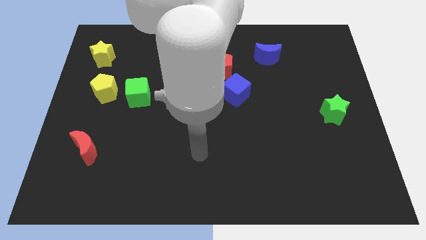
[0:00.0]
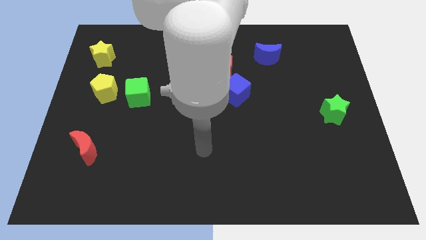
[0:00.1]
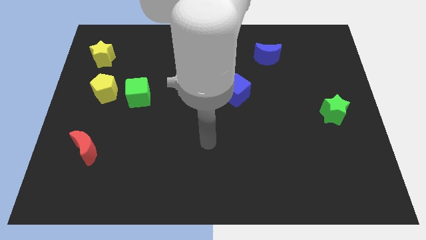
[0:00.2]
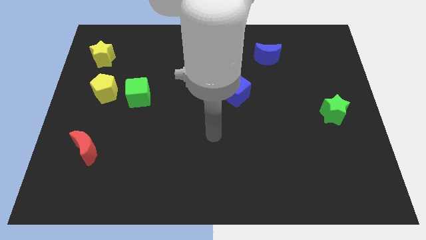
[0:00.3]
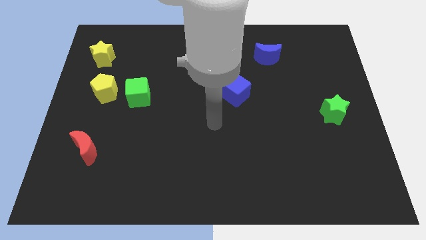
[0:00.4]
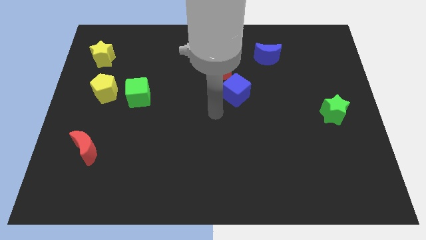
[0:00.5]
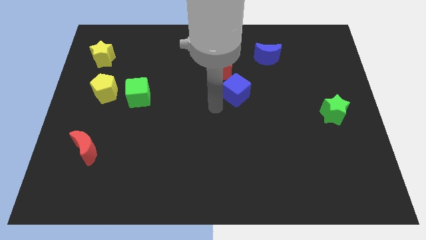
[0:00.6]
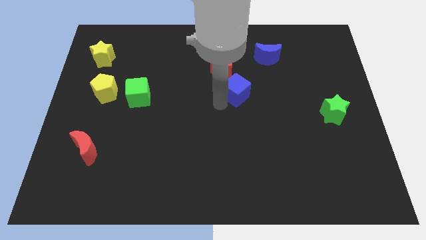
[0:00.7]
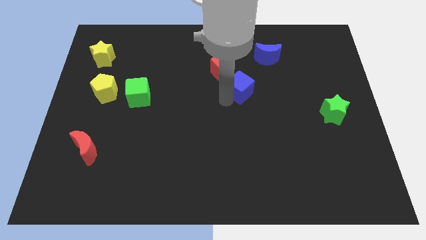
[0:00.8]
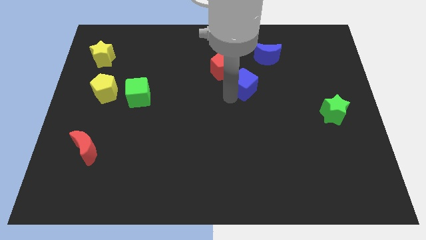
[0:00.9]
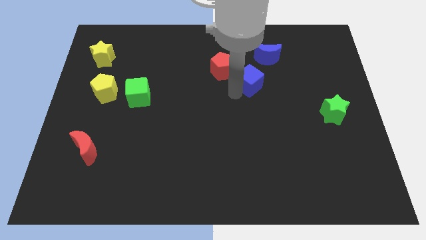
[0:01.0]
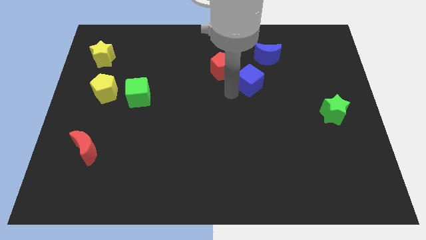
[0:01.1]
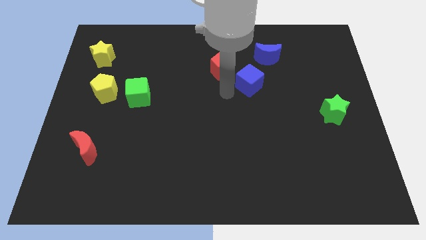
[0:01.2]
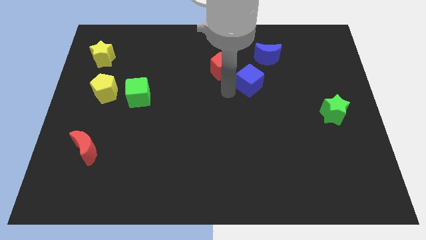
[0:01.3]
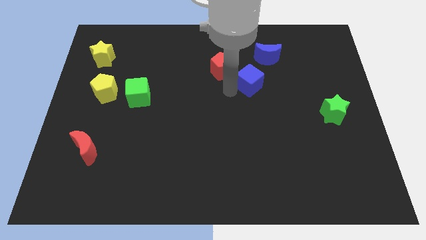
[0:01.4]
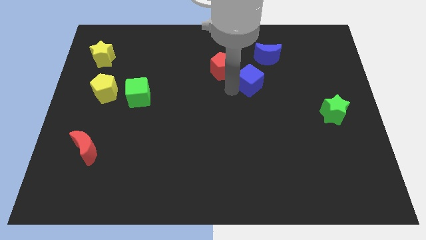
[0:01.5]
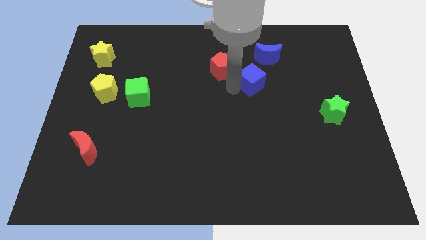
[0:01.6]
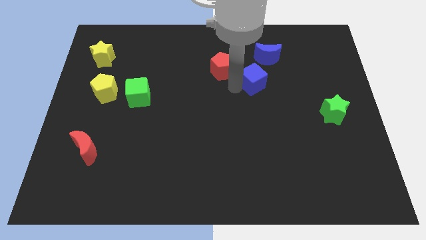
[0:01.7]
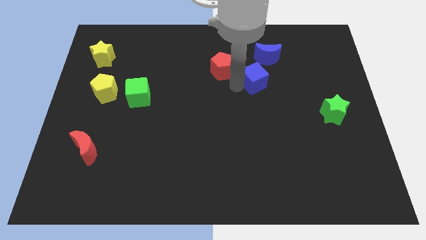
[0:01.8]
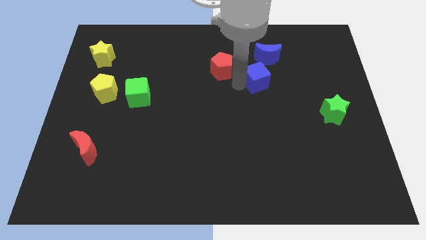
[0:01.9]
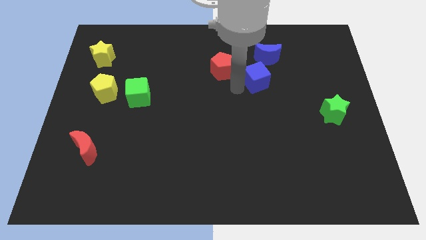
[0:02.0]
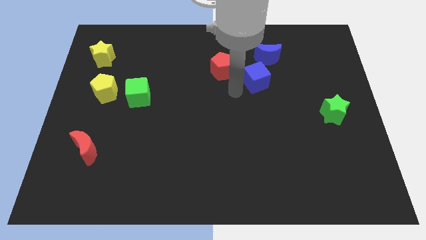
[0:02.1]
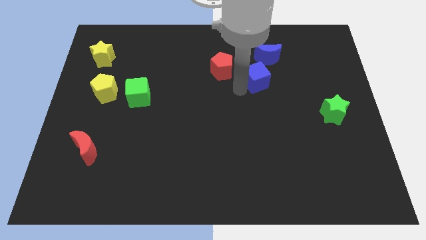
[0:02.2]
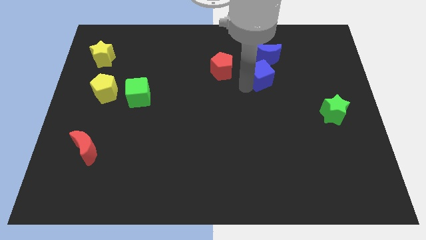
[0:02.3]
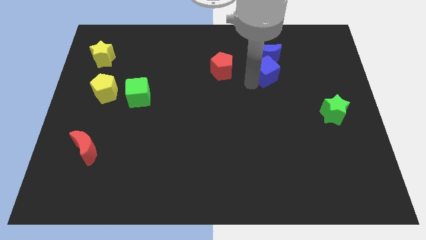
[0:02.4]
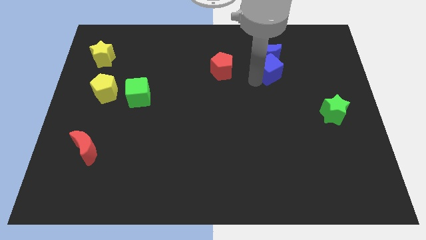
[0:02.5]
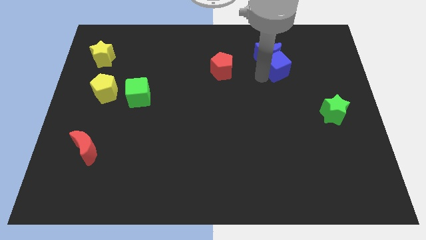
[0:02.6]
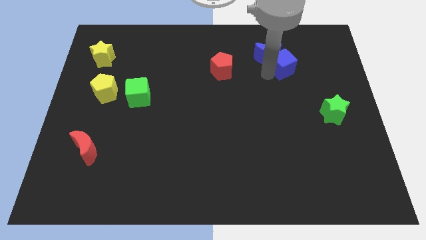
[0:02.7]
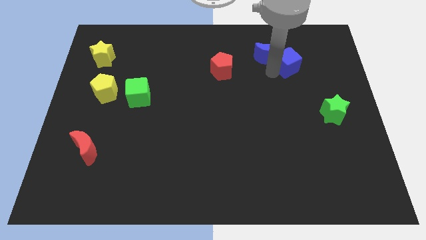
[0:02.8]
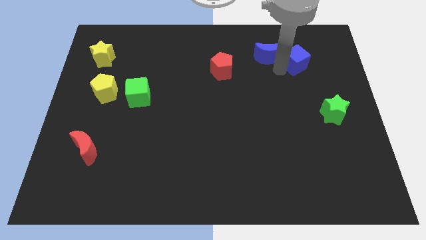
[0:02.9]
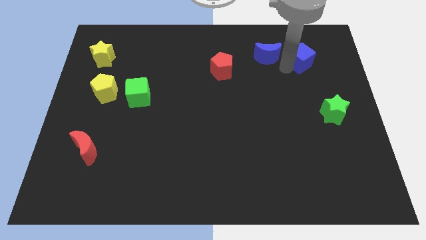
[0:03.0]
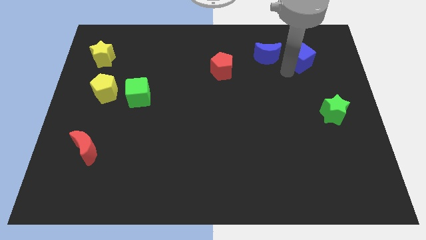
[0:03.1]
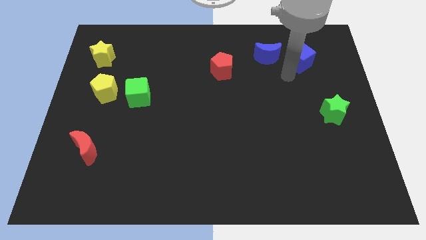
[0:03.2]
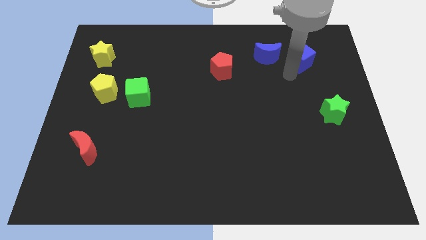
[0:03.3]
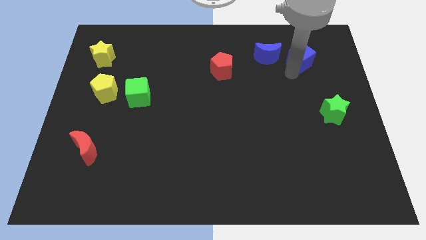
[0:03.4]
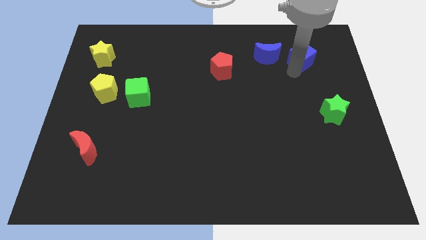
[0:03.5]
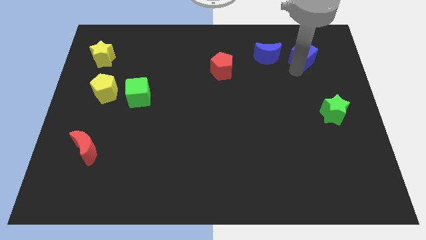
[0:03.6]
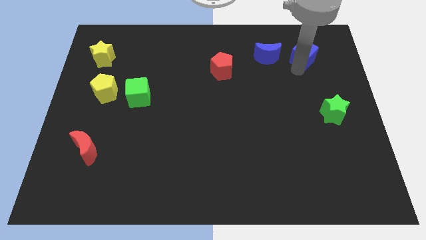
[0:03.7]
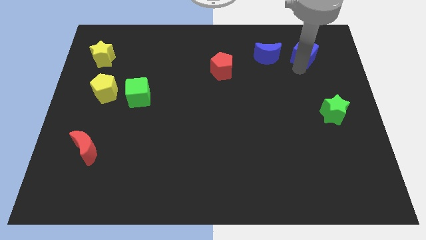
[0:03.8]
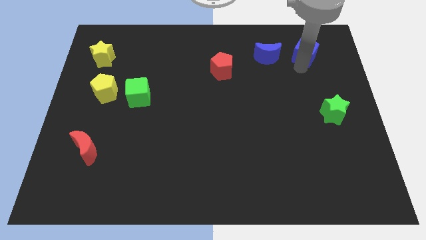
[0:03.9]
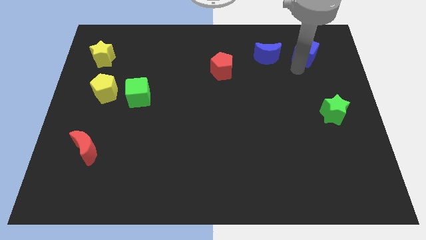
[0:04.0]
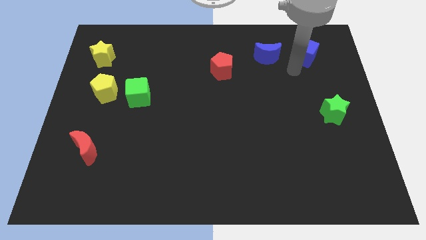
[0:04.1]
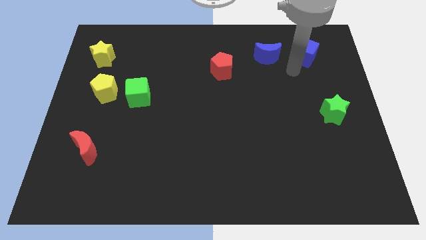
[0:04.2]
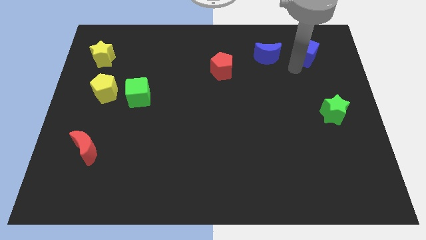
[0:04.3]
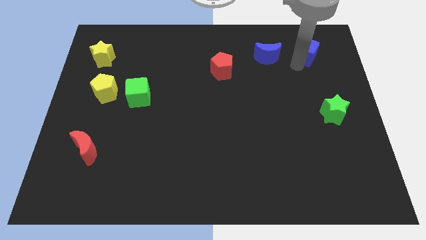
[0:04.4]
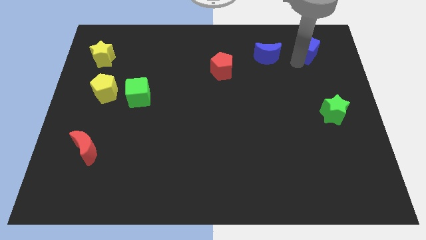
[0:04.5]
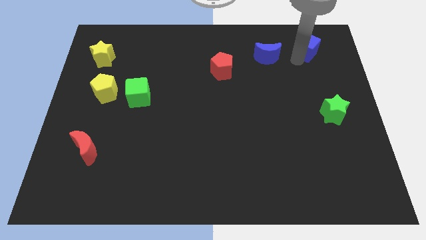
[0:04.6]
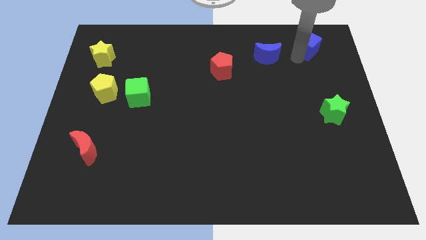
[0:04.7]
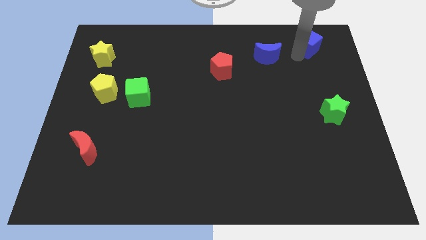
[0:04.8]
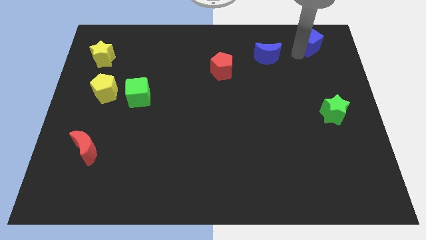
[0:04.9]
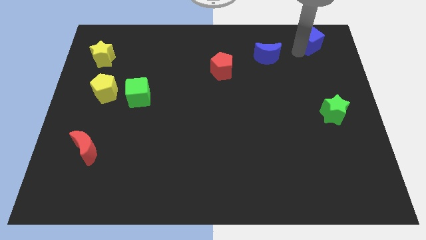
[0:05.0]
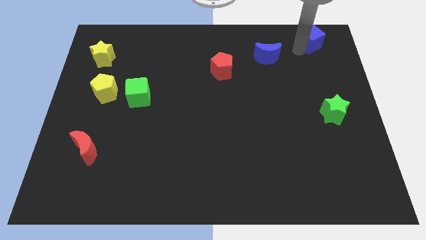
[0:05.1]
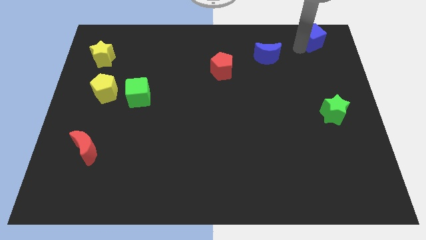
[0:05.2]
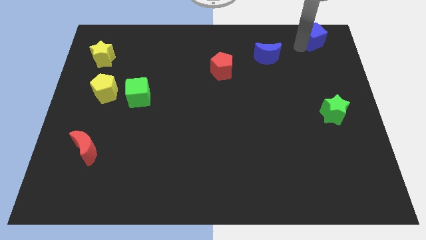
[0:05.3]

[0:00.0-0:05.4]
push the blue cube to the upper right corner

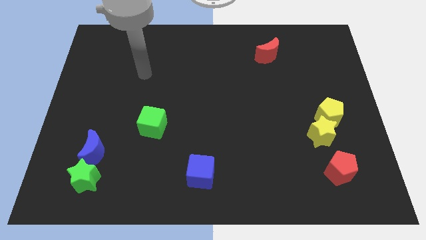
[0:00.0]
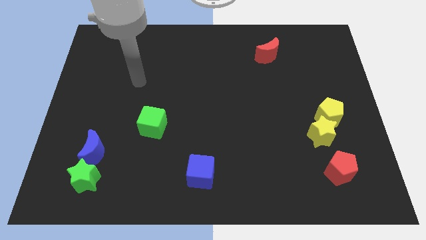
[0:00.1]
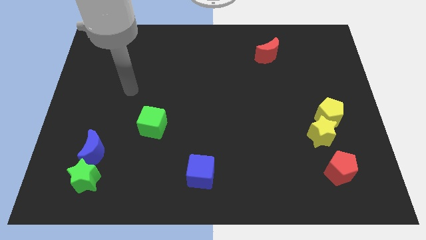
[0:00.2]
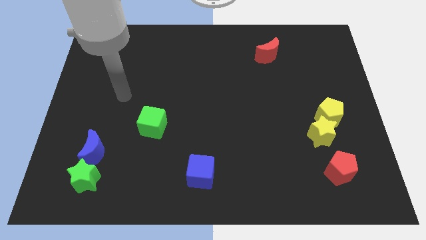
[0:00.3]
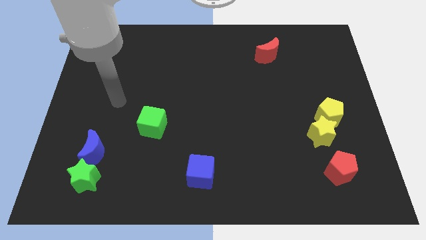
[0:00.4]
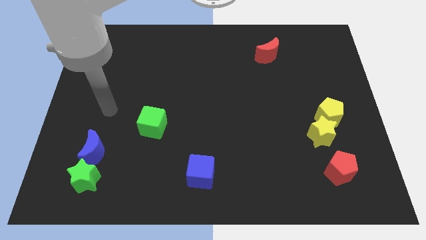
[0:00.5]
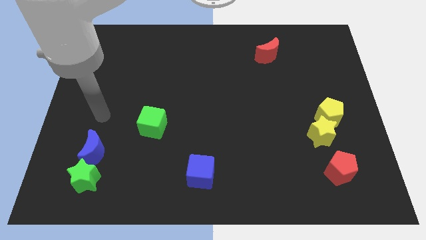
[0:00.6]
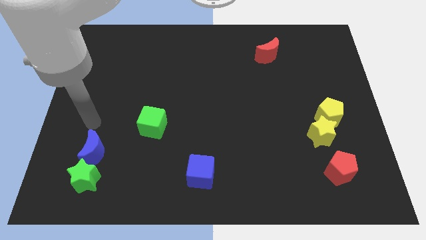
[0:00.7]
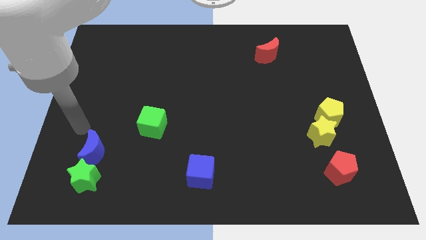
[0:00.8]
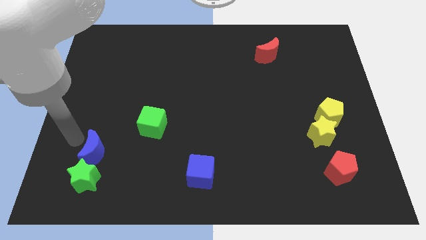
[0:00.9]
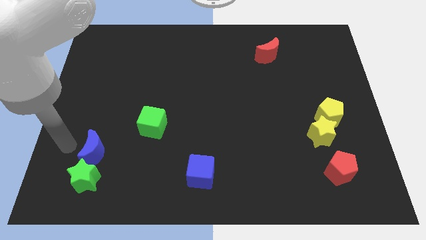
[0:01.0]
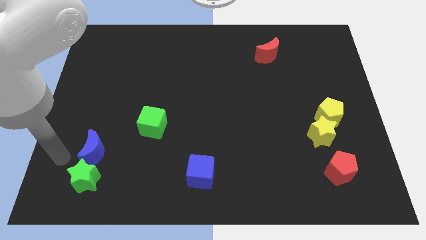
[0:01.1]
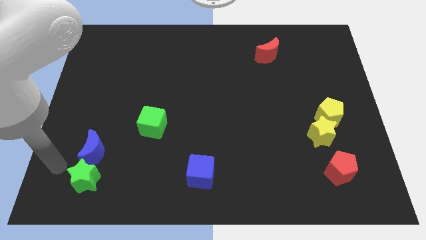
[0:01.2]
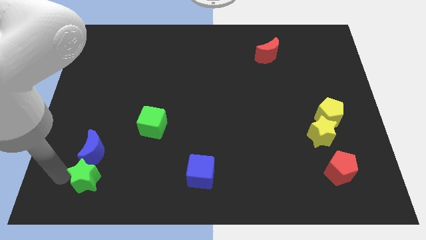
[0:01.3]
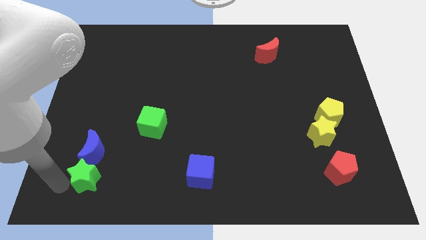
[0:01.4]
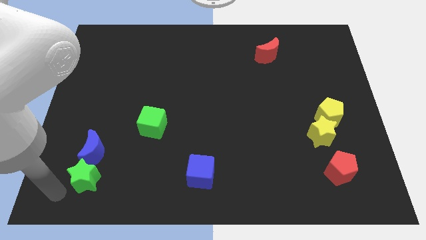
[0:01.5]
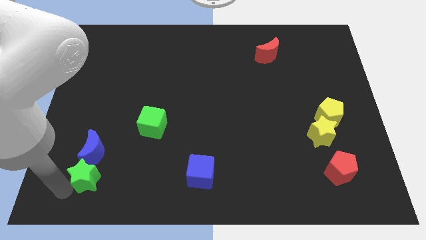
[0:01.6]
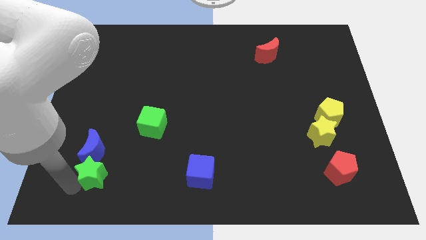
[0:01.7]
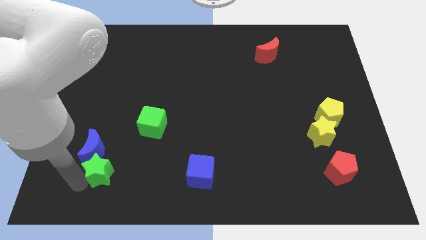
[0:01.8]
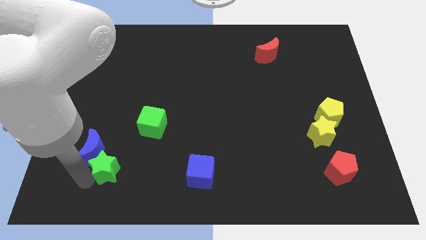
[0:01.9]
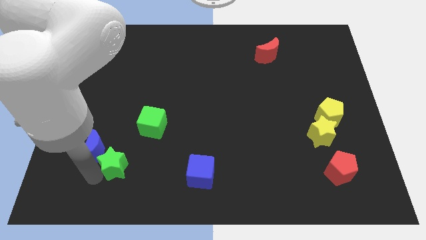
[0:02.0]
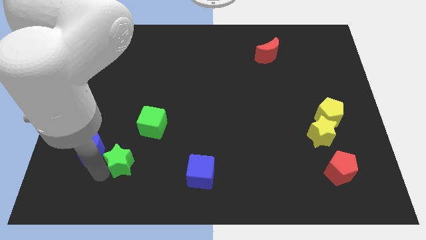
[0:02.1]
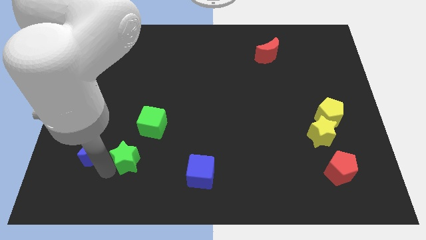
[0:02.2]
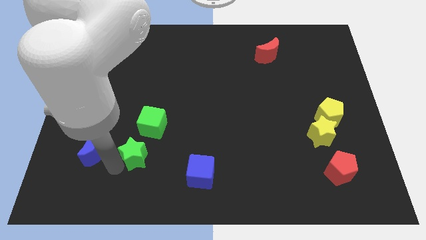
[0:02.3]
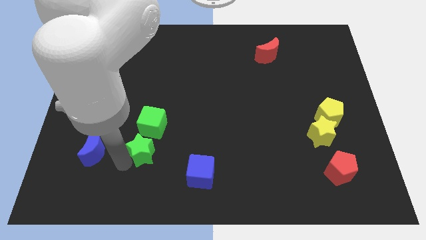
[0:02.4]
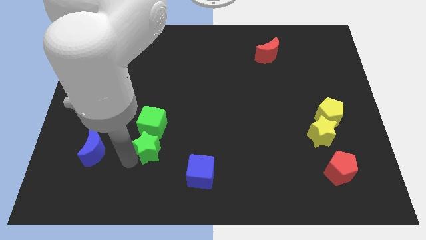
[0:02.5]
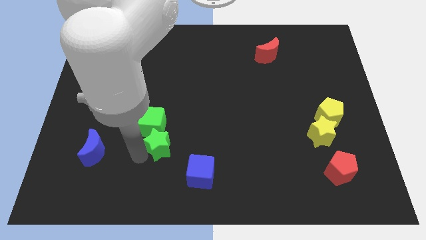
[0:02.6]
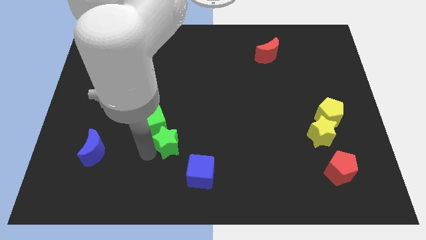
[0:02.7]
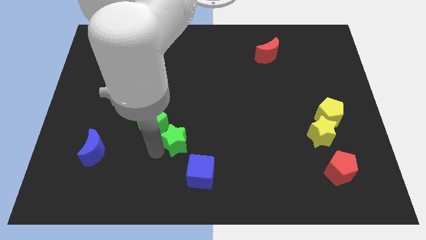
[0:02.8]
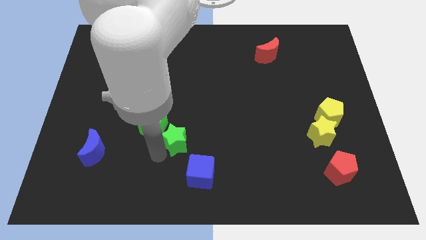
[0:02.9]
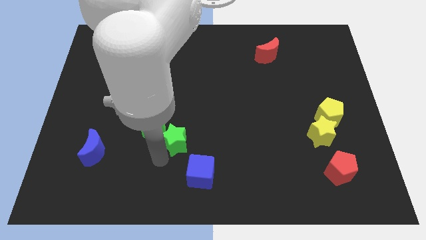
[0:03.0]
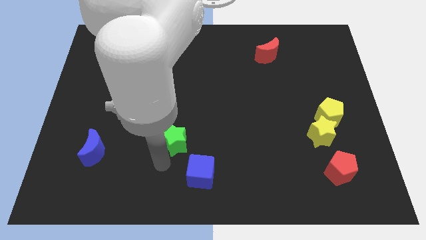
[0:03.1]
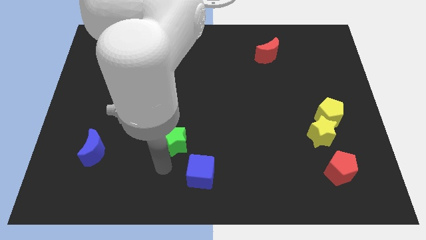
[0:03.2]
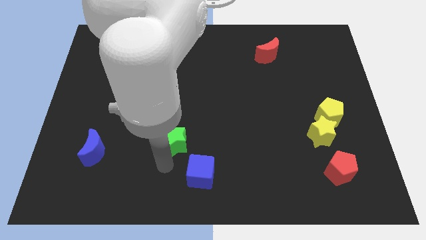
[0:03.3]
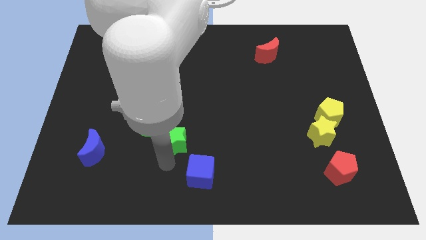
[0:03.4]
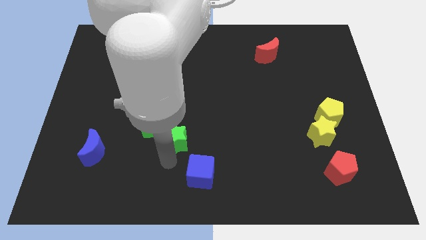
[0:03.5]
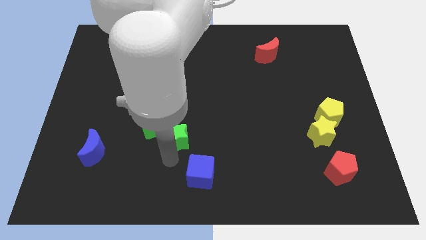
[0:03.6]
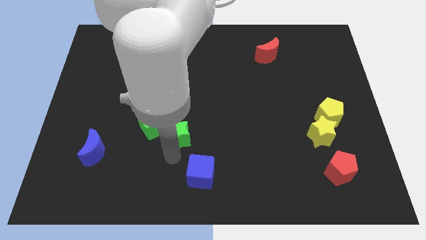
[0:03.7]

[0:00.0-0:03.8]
slide the green star to the center of the board
